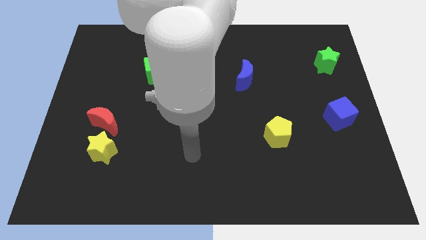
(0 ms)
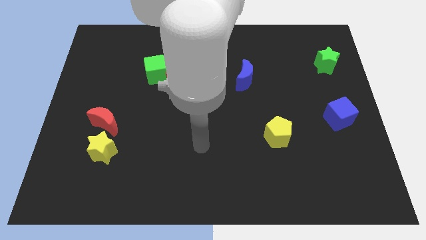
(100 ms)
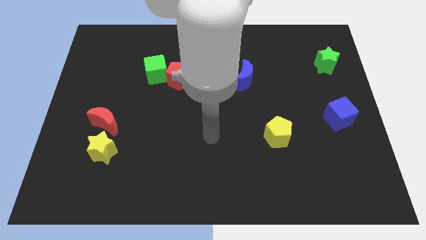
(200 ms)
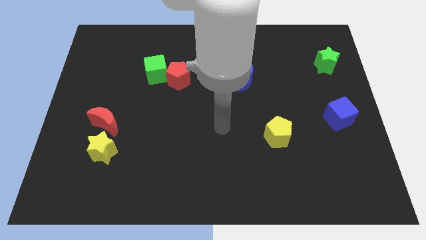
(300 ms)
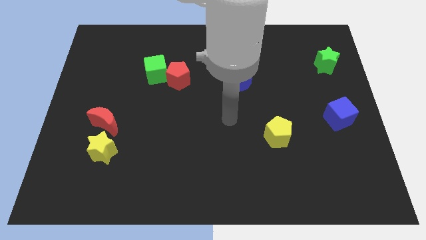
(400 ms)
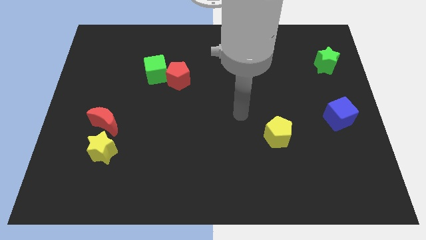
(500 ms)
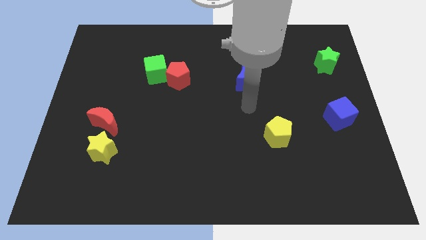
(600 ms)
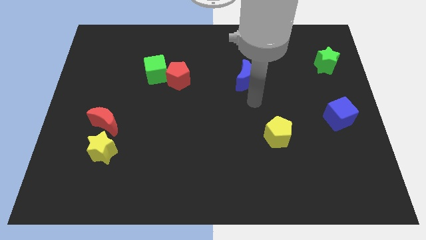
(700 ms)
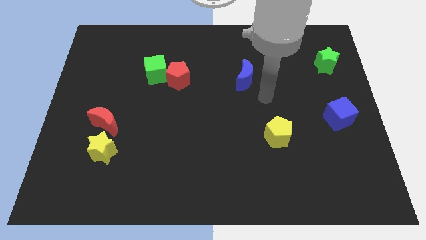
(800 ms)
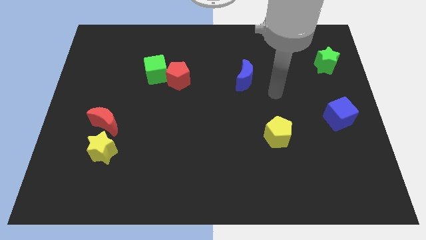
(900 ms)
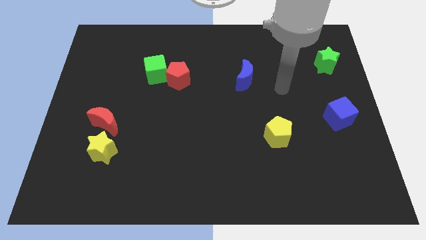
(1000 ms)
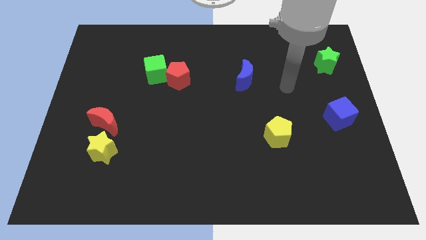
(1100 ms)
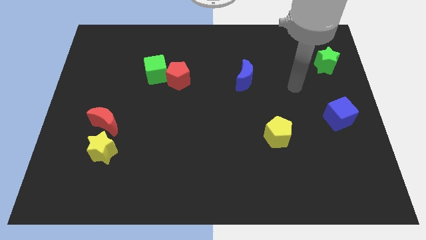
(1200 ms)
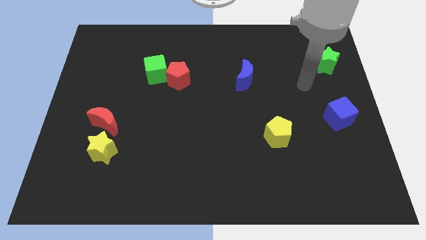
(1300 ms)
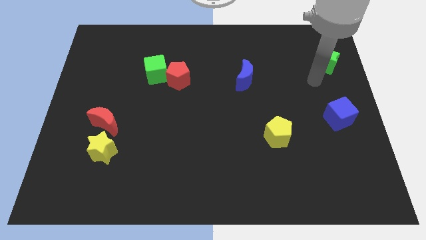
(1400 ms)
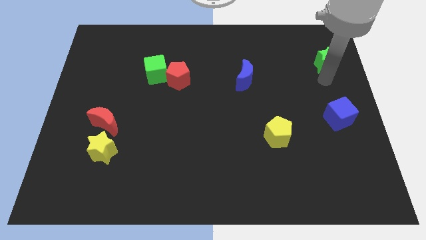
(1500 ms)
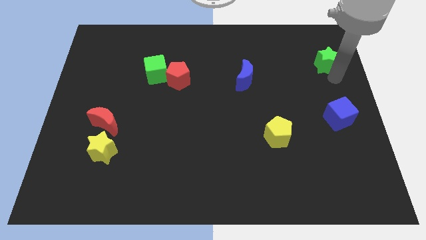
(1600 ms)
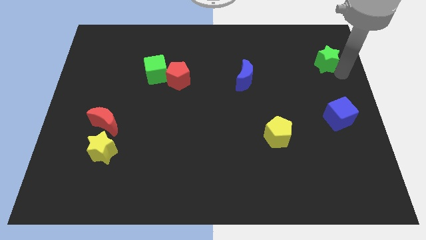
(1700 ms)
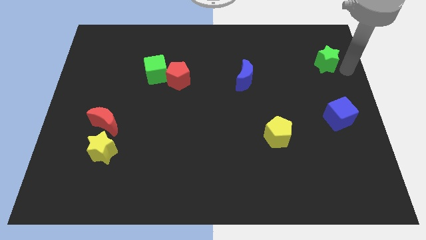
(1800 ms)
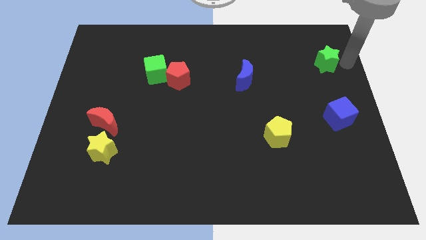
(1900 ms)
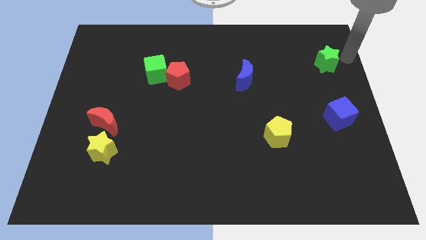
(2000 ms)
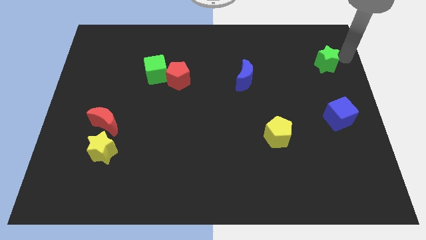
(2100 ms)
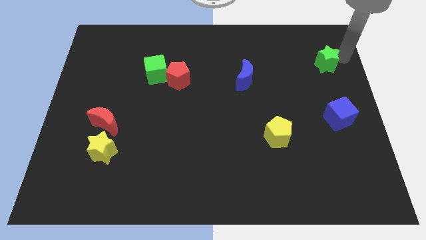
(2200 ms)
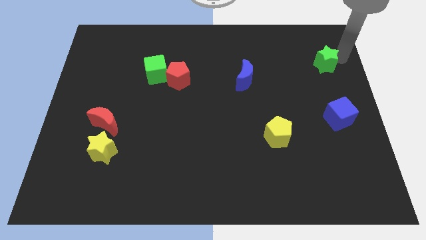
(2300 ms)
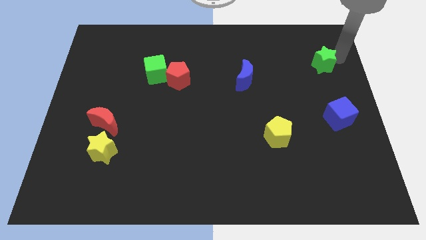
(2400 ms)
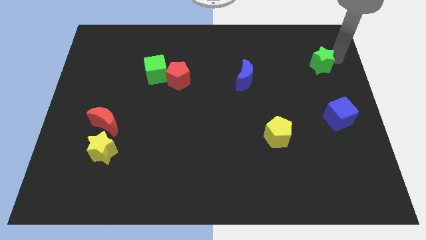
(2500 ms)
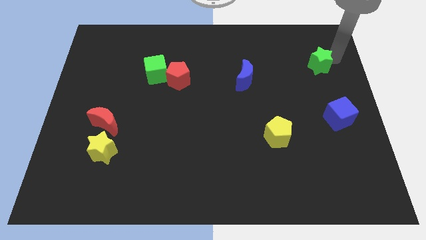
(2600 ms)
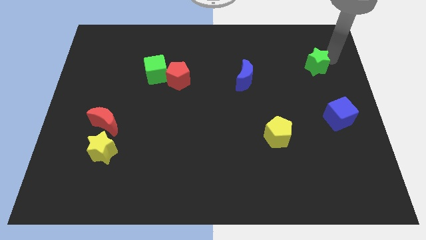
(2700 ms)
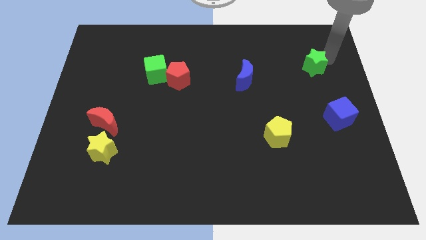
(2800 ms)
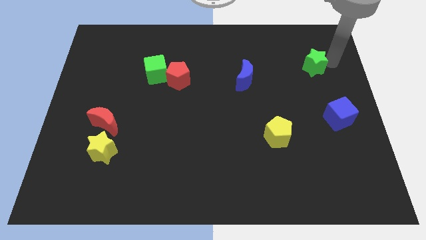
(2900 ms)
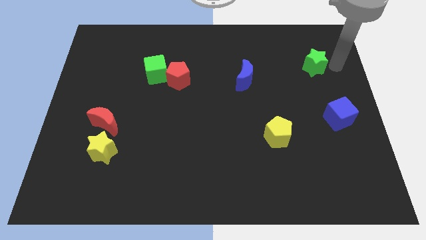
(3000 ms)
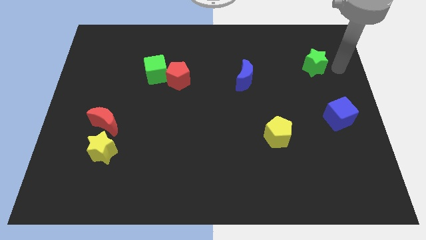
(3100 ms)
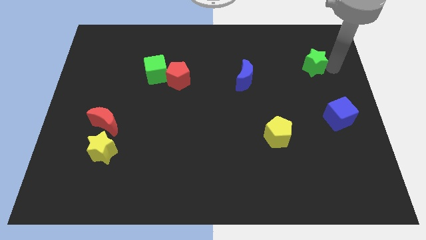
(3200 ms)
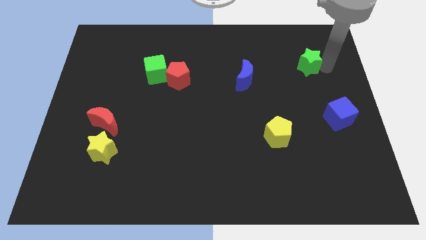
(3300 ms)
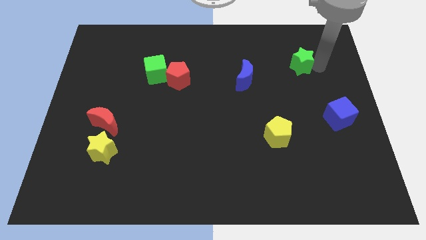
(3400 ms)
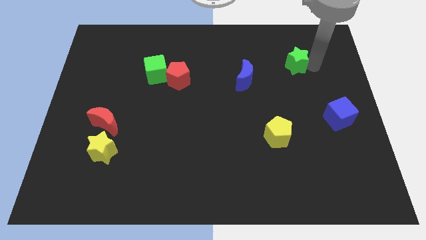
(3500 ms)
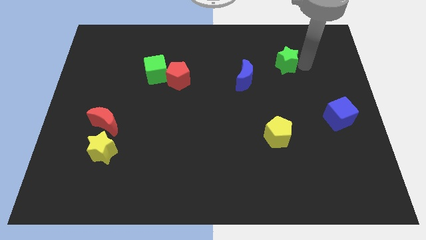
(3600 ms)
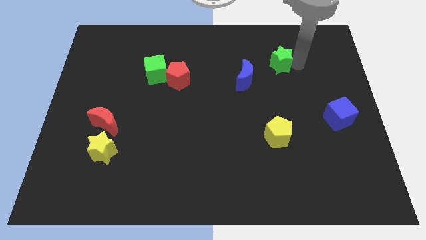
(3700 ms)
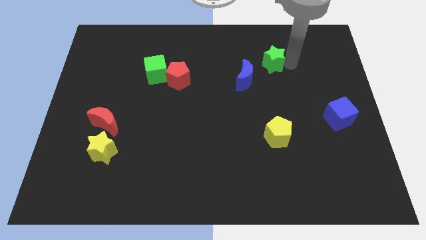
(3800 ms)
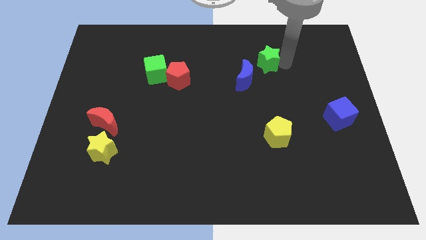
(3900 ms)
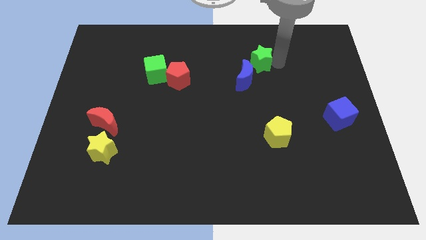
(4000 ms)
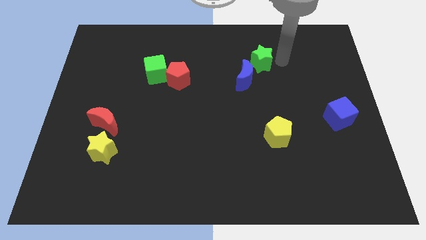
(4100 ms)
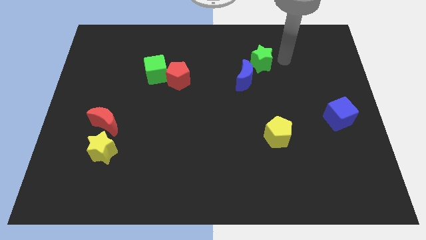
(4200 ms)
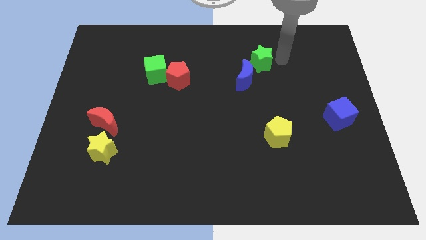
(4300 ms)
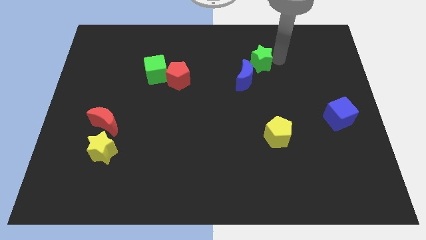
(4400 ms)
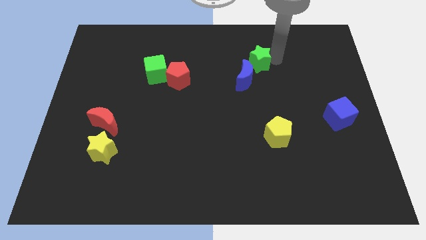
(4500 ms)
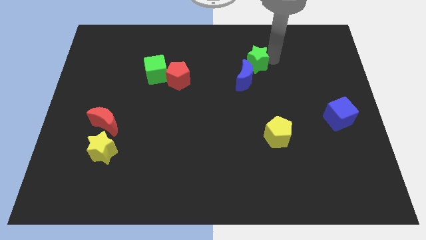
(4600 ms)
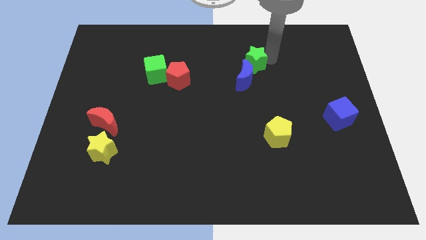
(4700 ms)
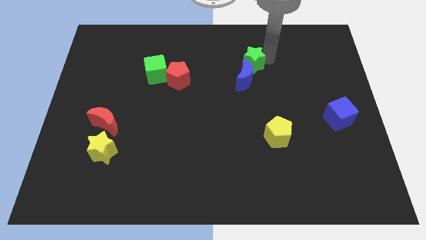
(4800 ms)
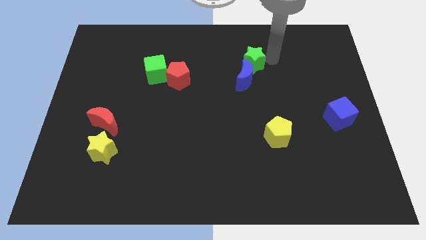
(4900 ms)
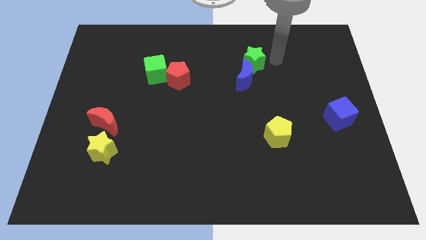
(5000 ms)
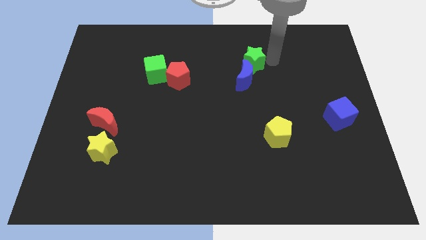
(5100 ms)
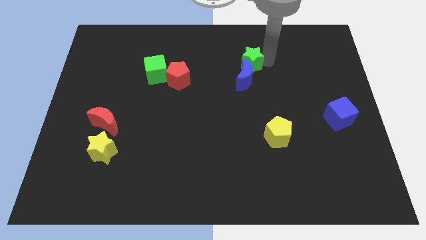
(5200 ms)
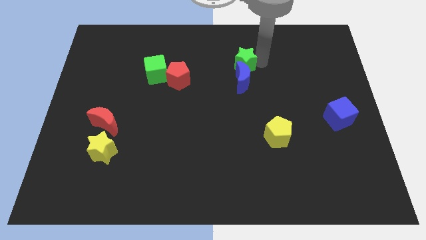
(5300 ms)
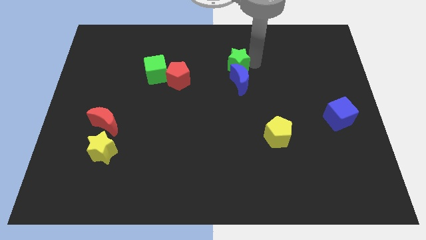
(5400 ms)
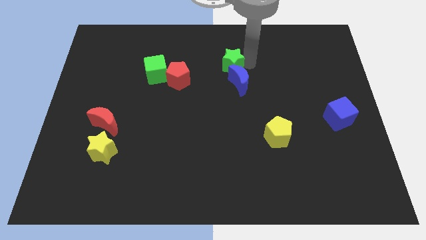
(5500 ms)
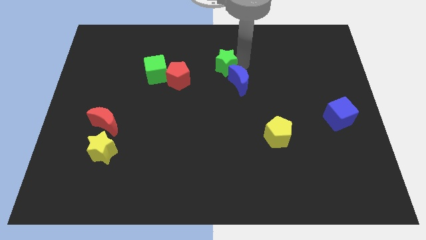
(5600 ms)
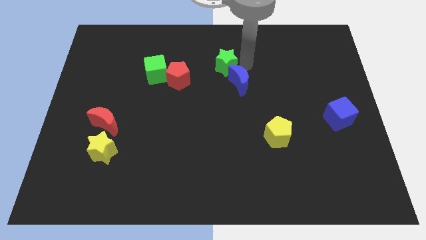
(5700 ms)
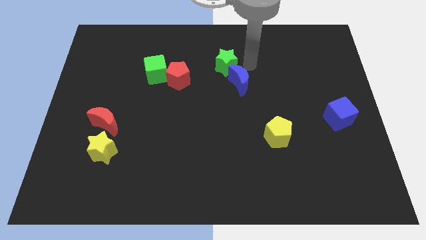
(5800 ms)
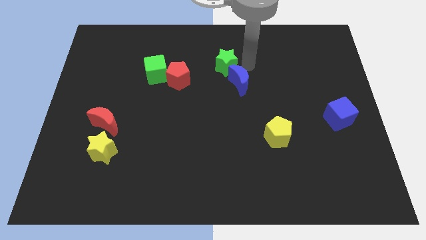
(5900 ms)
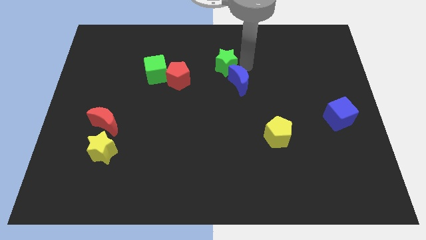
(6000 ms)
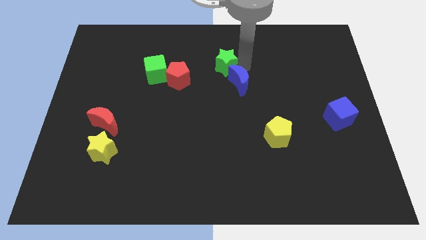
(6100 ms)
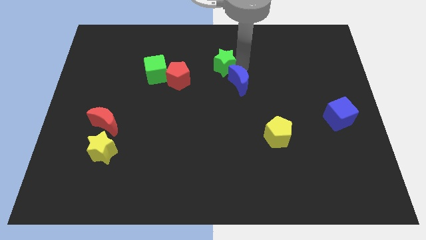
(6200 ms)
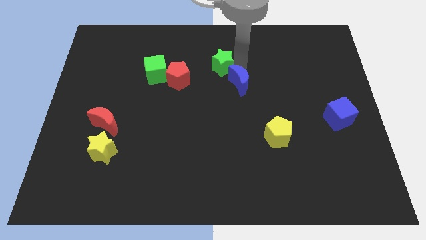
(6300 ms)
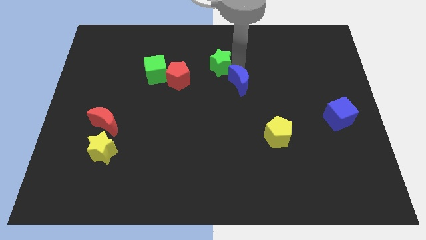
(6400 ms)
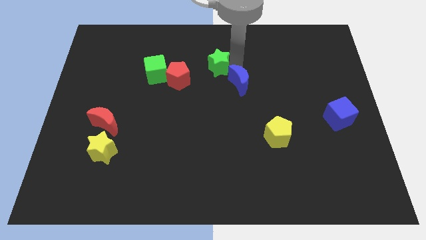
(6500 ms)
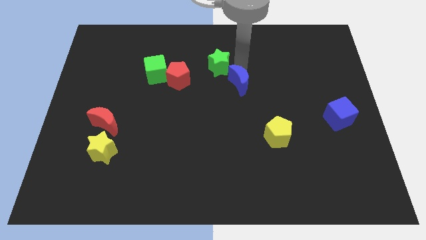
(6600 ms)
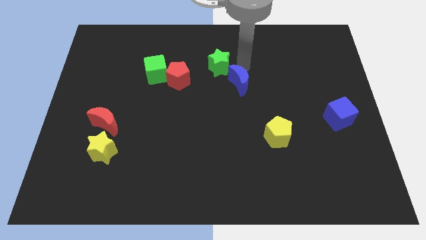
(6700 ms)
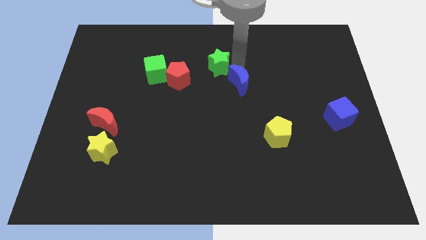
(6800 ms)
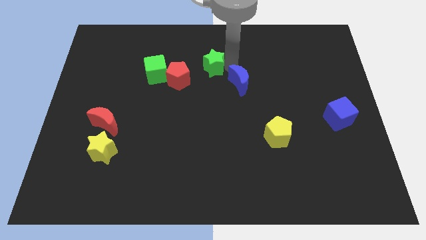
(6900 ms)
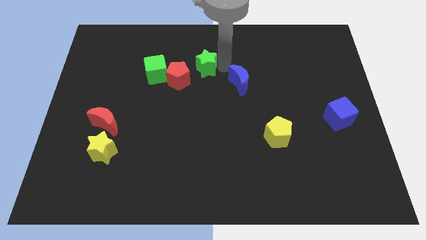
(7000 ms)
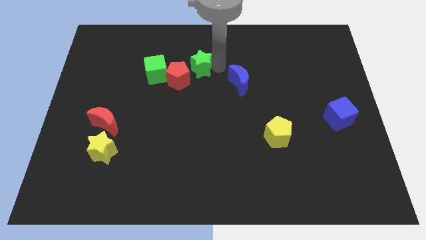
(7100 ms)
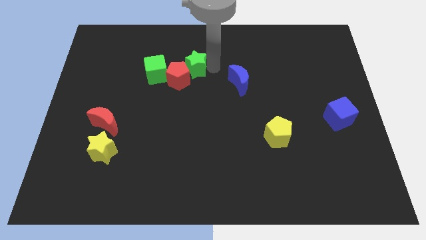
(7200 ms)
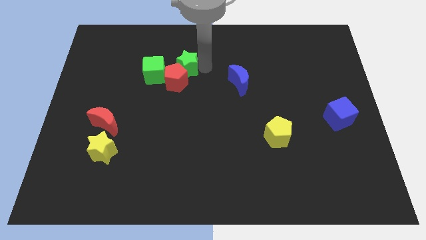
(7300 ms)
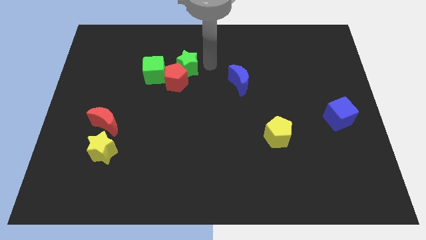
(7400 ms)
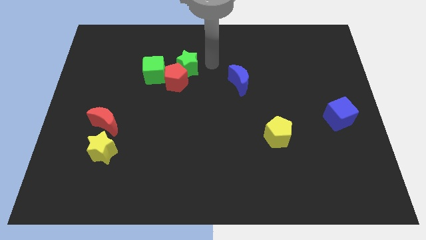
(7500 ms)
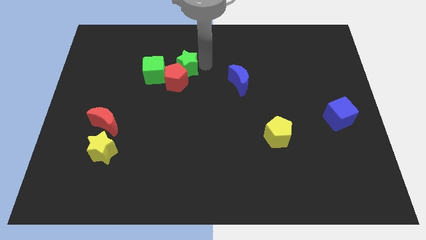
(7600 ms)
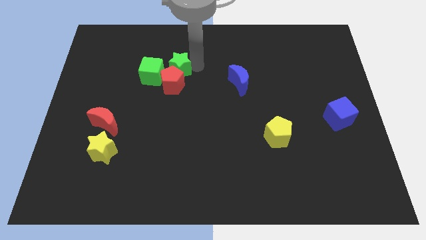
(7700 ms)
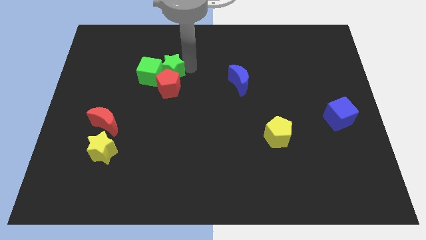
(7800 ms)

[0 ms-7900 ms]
put the green star towards the green cube
